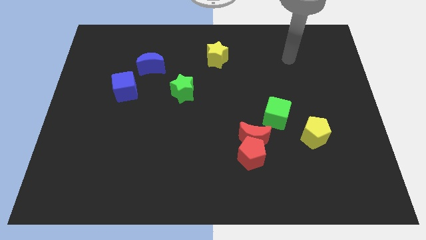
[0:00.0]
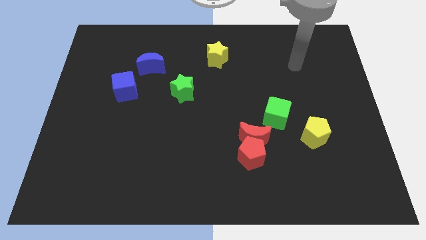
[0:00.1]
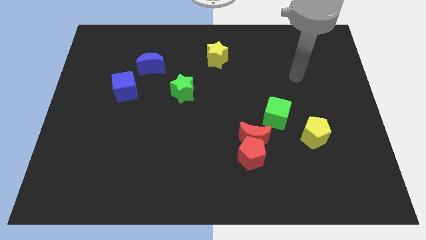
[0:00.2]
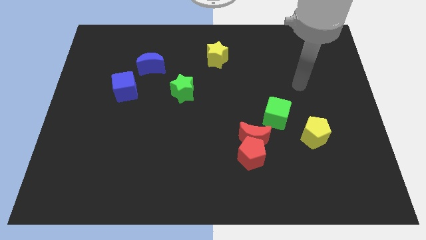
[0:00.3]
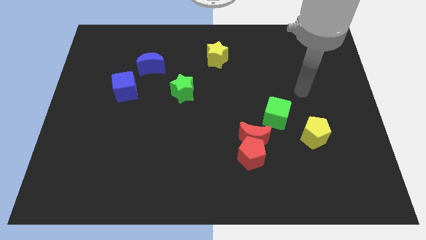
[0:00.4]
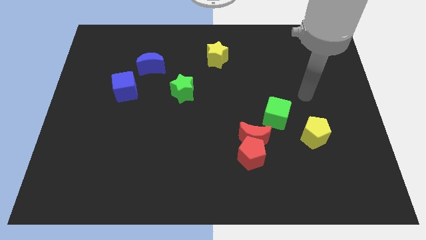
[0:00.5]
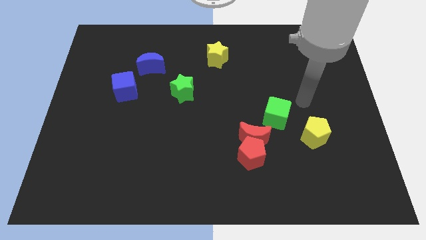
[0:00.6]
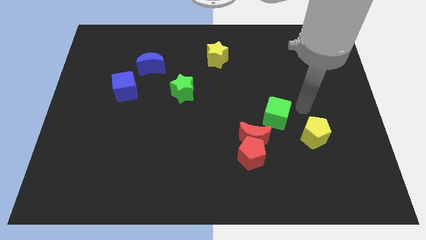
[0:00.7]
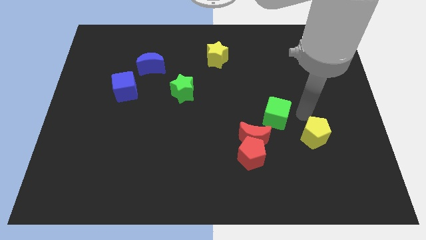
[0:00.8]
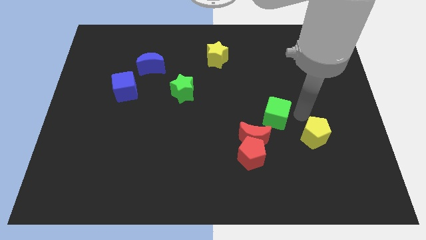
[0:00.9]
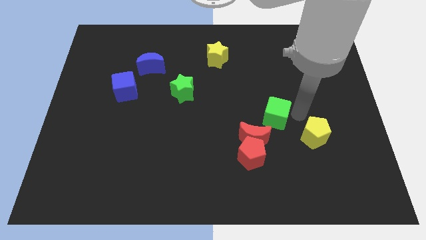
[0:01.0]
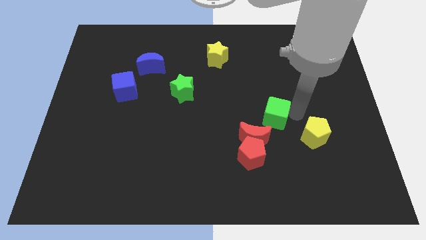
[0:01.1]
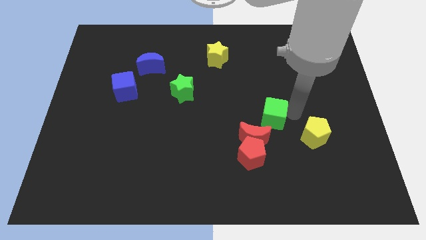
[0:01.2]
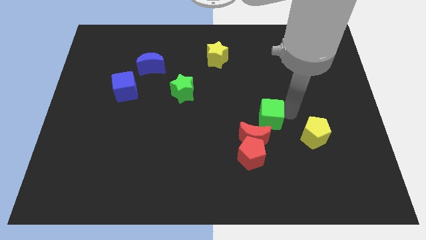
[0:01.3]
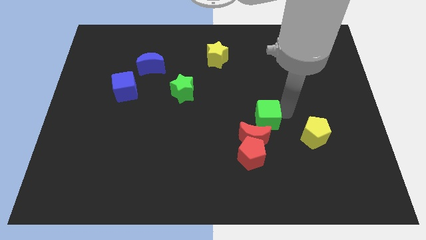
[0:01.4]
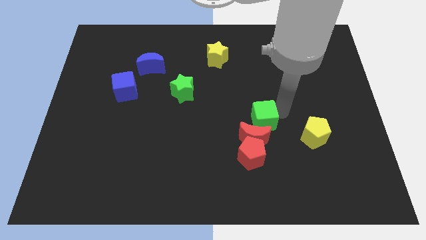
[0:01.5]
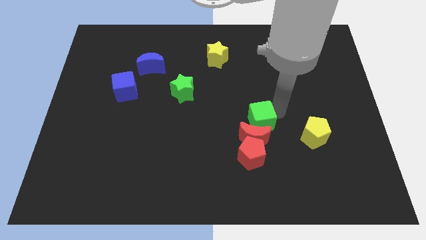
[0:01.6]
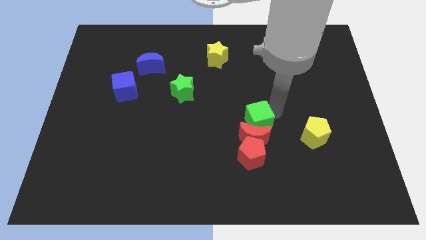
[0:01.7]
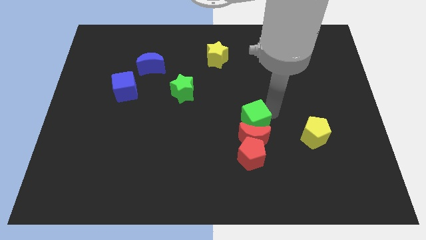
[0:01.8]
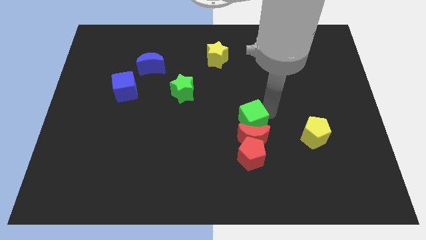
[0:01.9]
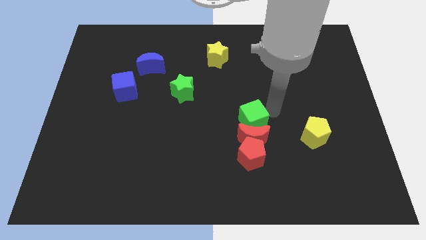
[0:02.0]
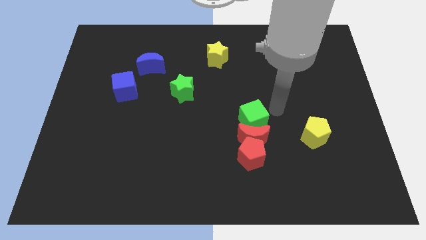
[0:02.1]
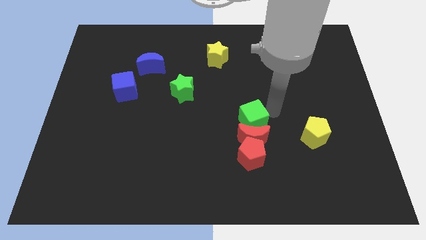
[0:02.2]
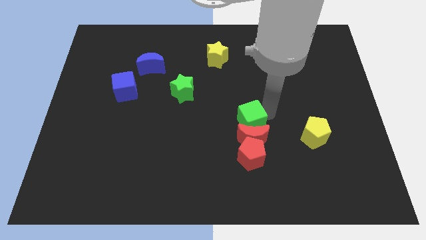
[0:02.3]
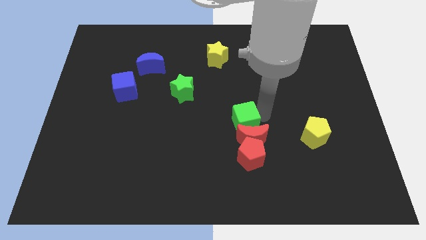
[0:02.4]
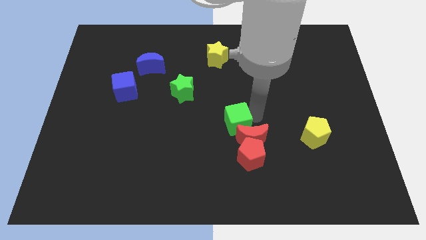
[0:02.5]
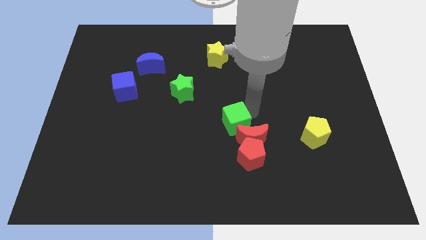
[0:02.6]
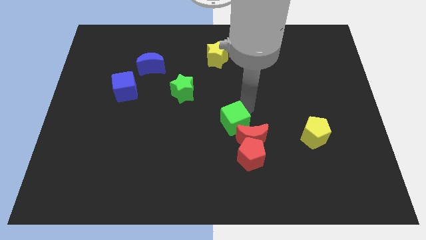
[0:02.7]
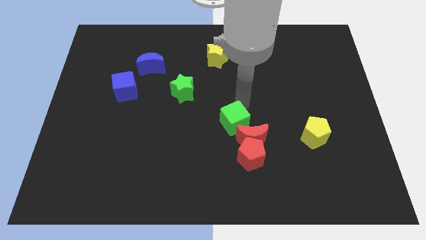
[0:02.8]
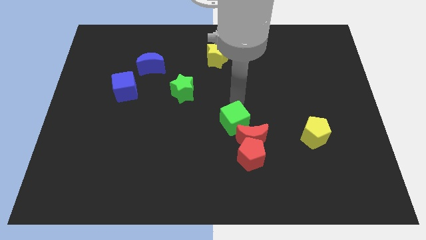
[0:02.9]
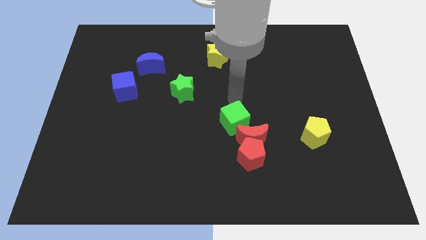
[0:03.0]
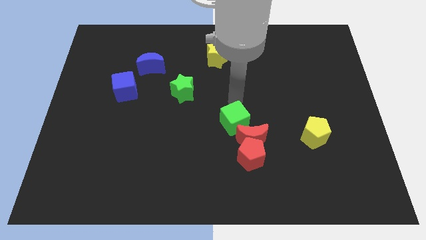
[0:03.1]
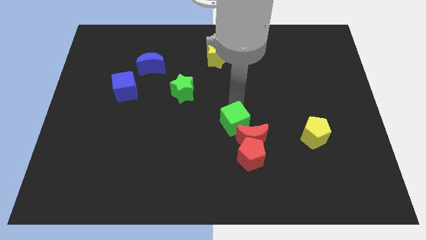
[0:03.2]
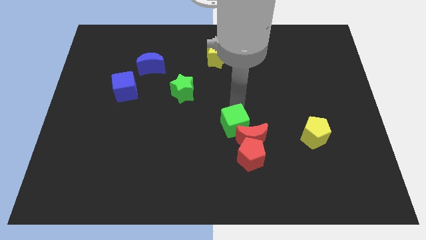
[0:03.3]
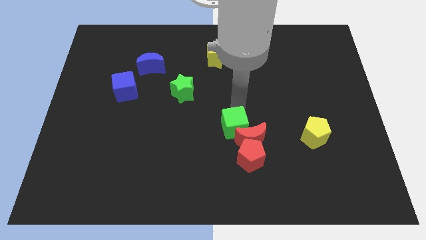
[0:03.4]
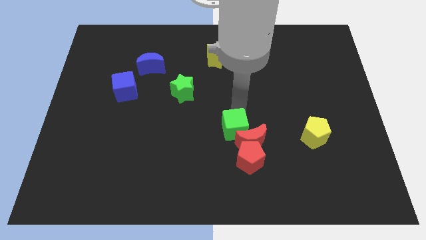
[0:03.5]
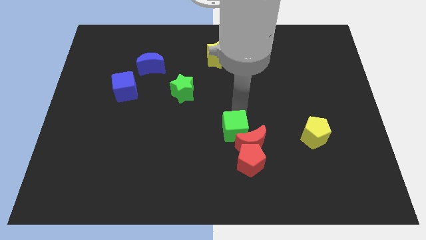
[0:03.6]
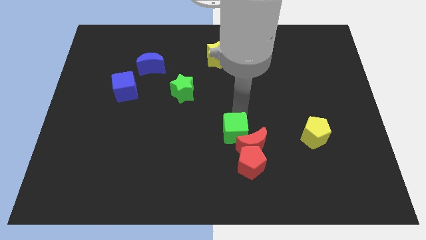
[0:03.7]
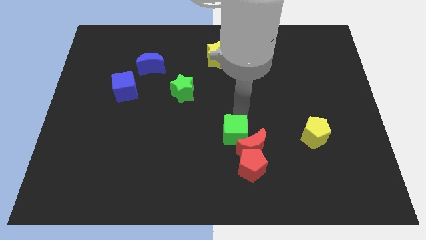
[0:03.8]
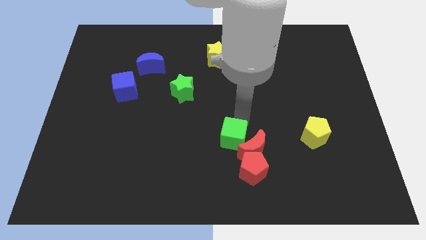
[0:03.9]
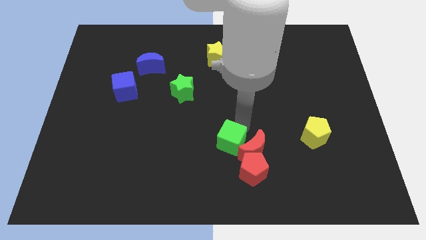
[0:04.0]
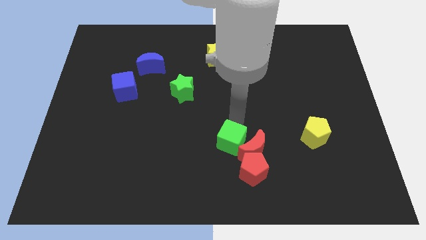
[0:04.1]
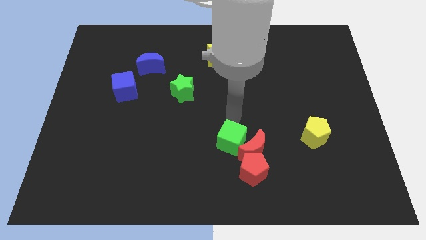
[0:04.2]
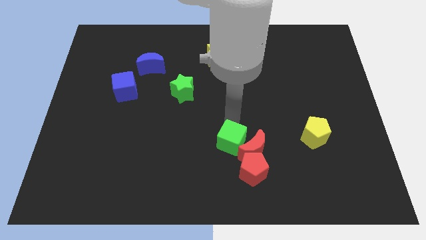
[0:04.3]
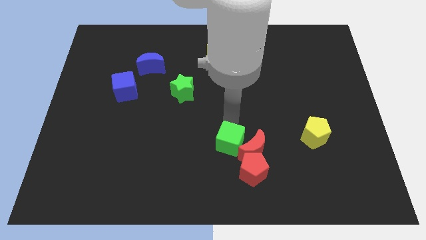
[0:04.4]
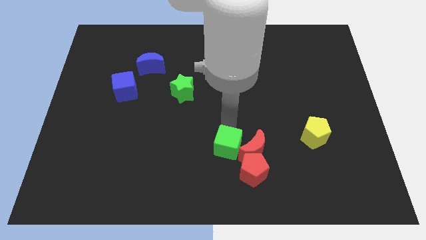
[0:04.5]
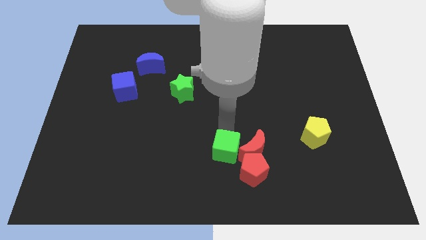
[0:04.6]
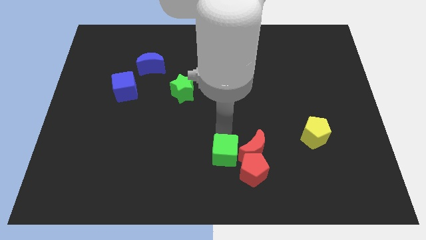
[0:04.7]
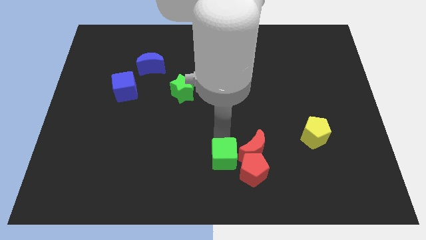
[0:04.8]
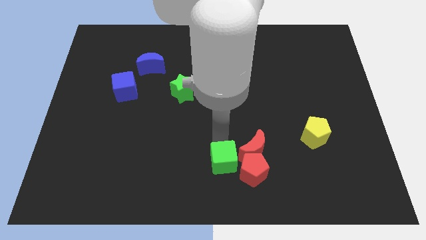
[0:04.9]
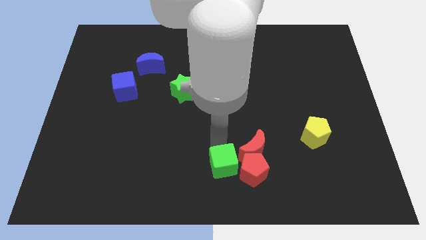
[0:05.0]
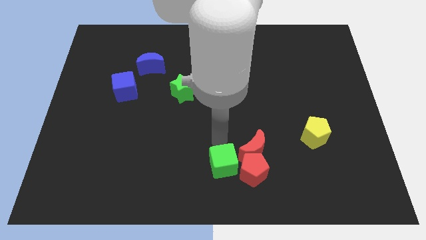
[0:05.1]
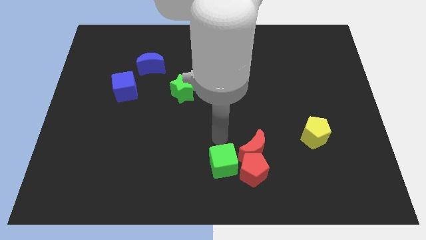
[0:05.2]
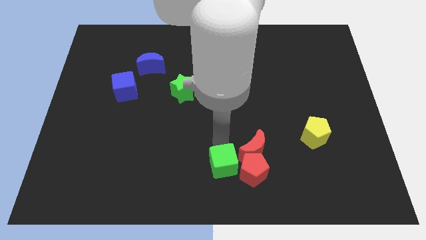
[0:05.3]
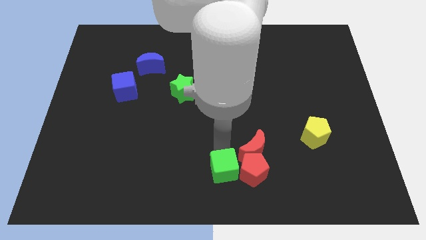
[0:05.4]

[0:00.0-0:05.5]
push the green cube diagonally down and to the left of the red pentagon

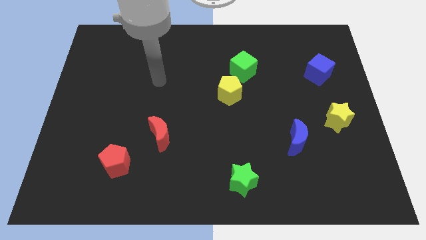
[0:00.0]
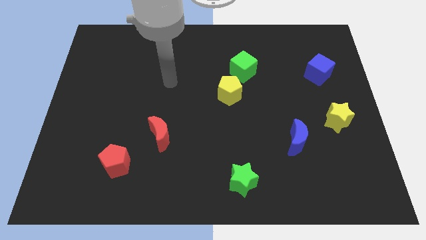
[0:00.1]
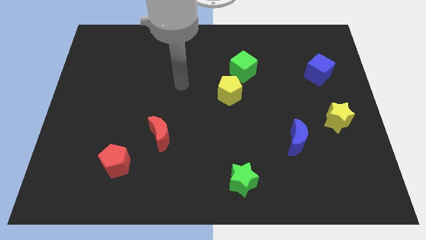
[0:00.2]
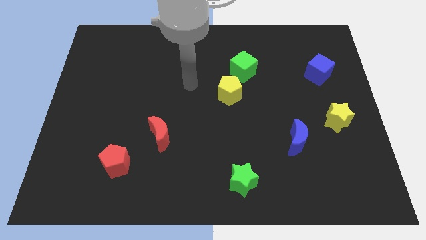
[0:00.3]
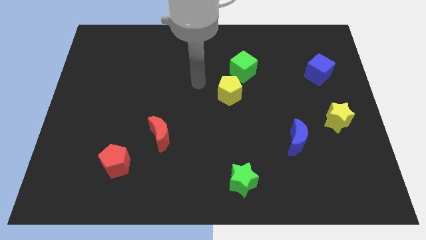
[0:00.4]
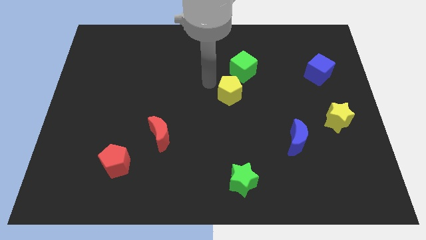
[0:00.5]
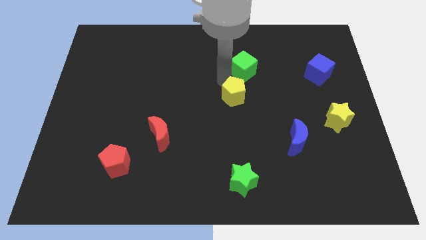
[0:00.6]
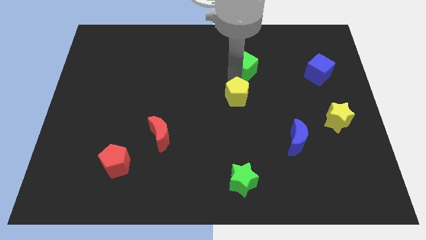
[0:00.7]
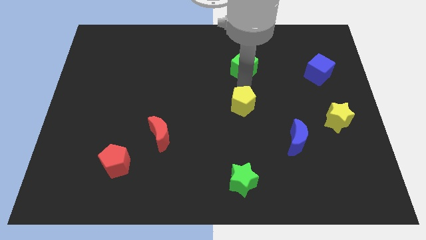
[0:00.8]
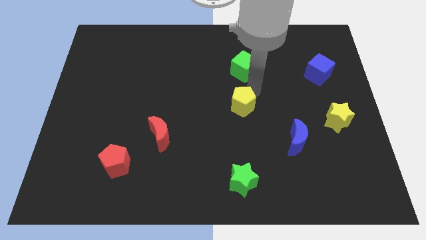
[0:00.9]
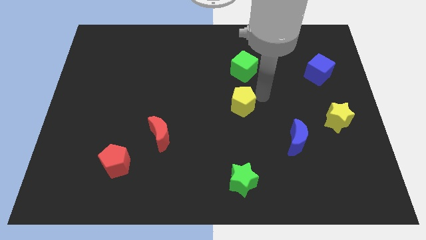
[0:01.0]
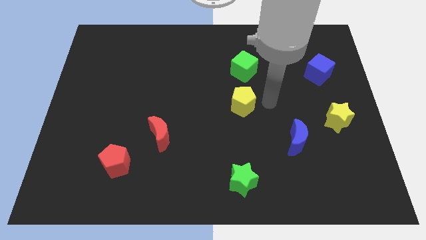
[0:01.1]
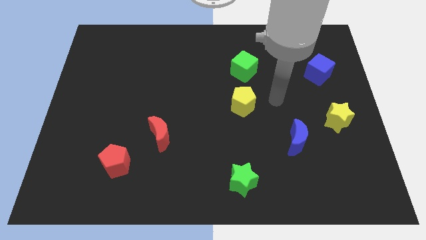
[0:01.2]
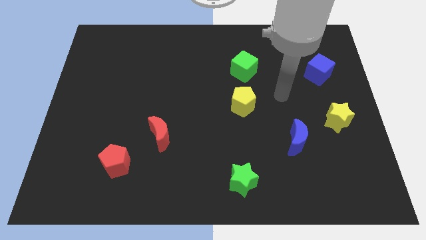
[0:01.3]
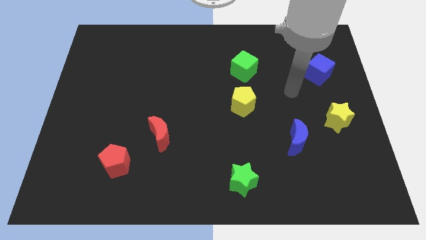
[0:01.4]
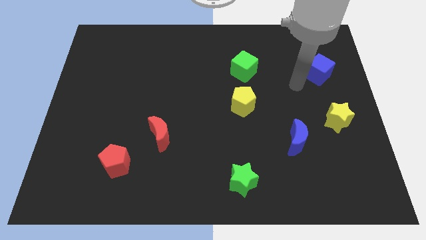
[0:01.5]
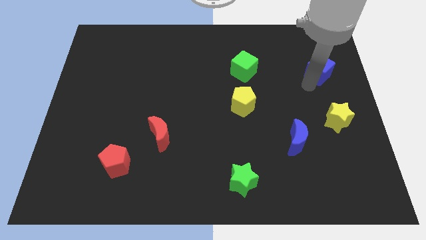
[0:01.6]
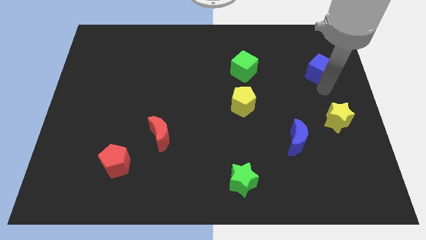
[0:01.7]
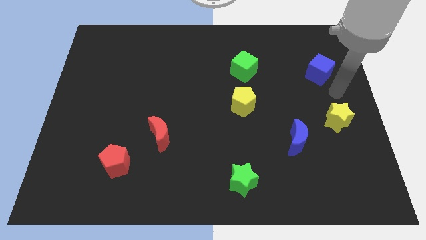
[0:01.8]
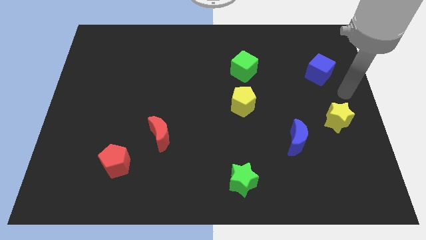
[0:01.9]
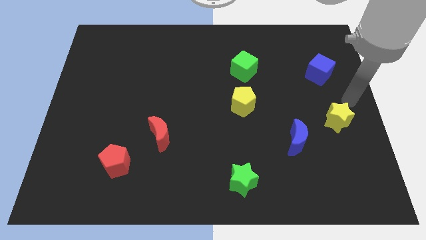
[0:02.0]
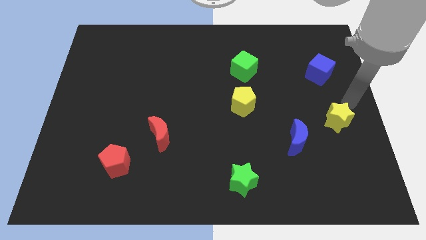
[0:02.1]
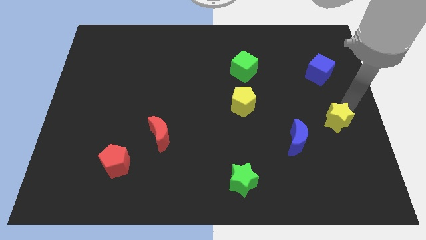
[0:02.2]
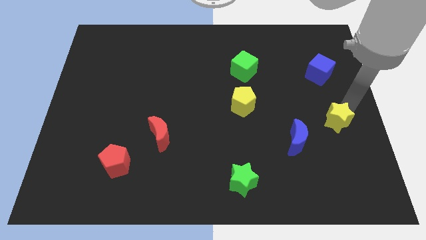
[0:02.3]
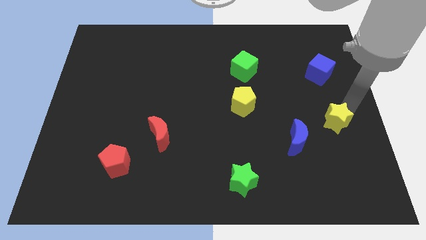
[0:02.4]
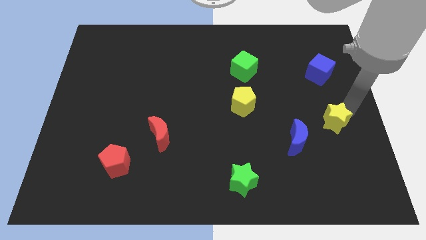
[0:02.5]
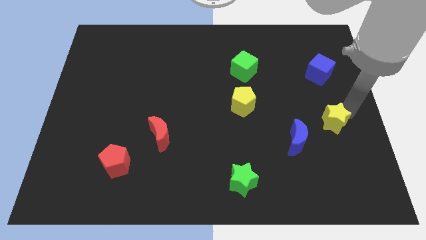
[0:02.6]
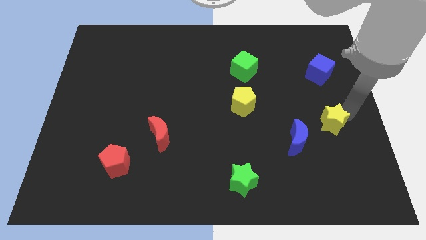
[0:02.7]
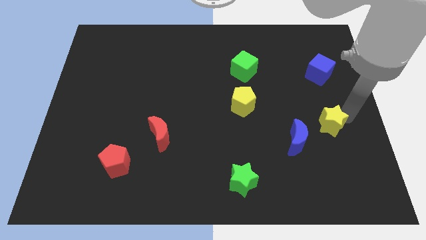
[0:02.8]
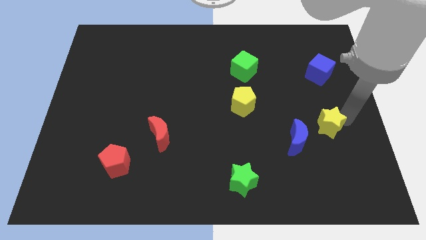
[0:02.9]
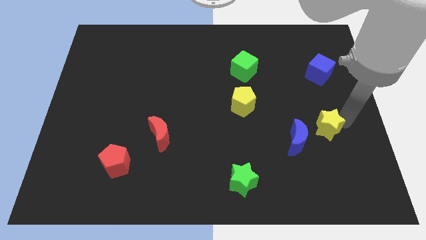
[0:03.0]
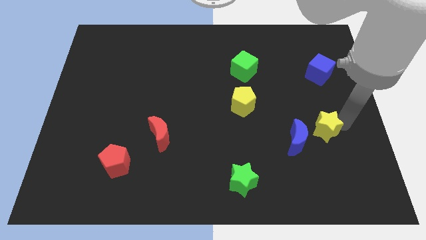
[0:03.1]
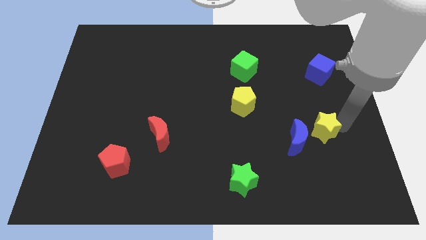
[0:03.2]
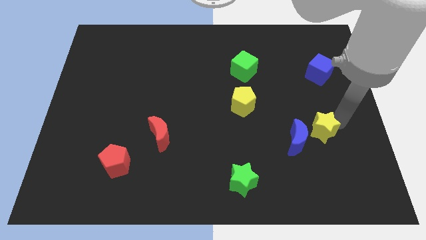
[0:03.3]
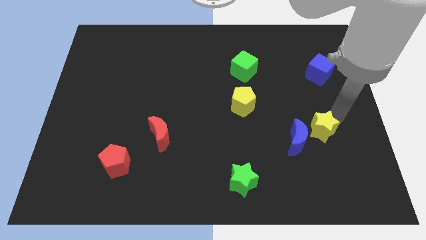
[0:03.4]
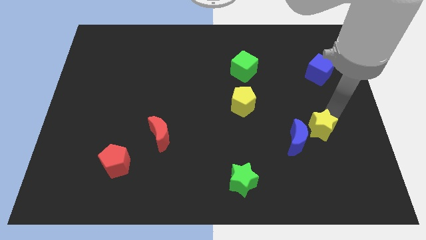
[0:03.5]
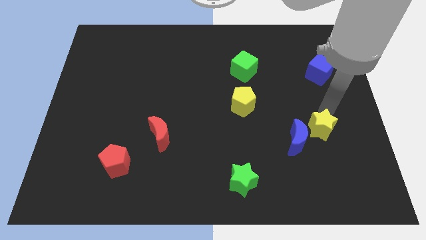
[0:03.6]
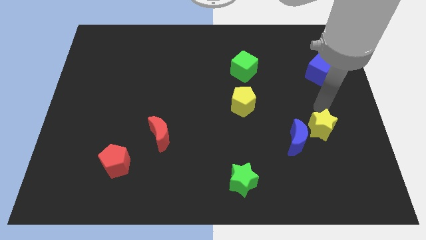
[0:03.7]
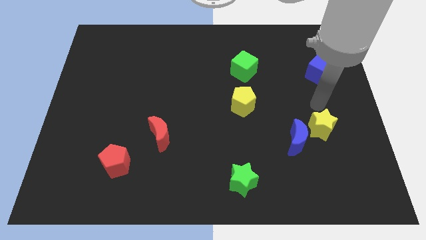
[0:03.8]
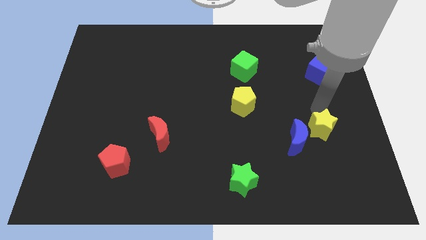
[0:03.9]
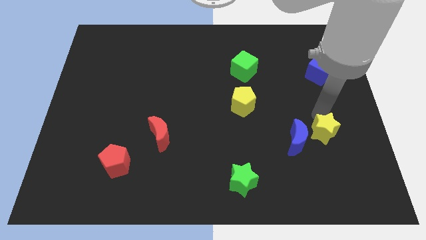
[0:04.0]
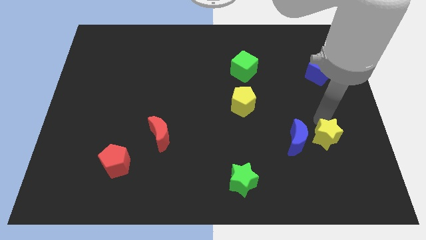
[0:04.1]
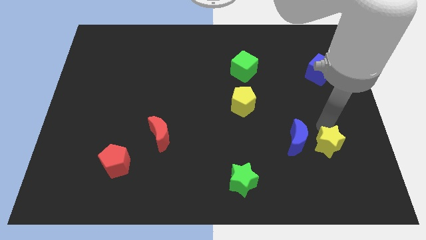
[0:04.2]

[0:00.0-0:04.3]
slide the yellow star diagonally down and to the right of the blue moon
